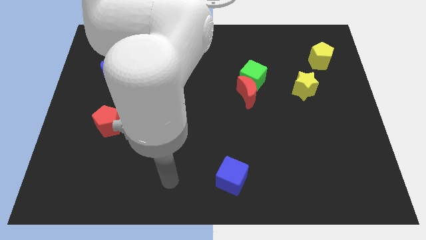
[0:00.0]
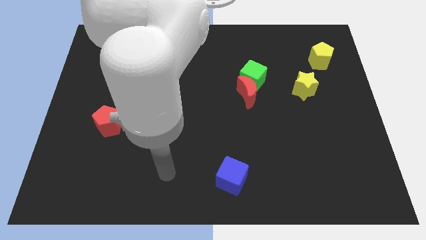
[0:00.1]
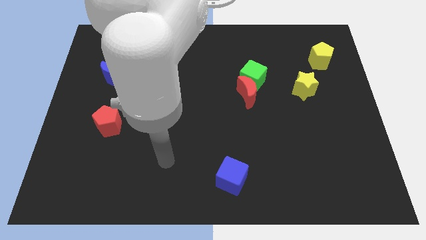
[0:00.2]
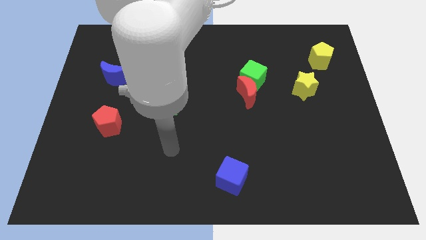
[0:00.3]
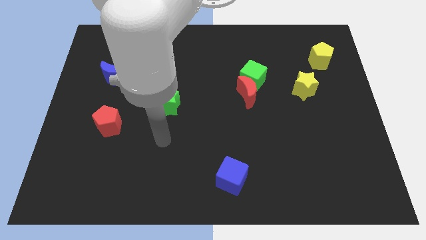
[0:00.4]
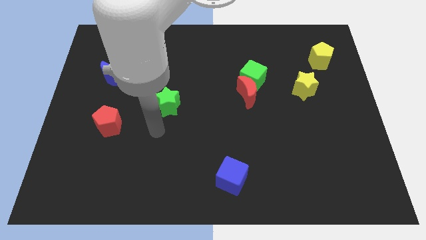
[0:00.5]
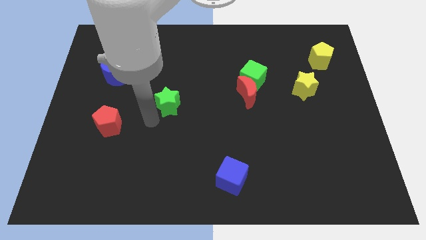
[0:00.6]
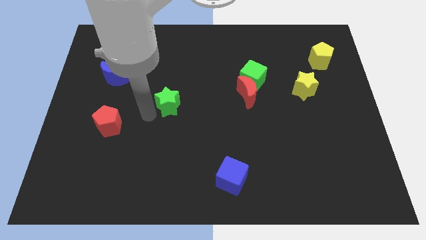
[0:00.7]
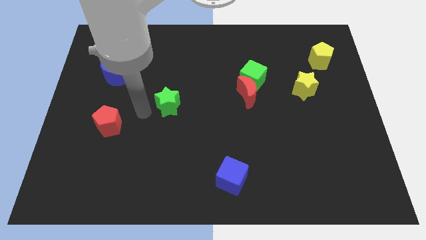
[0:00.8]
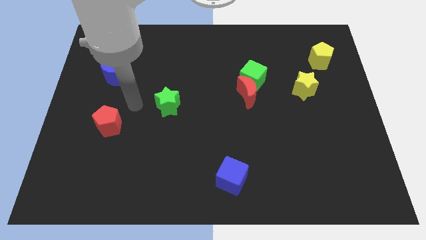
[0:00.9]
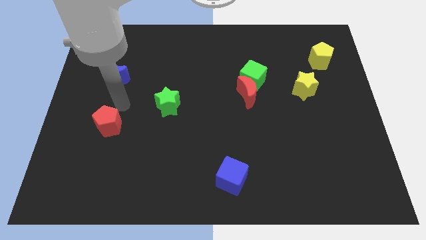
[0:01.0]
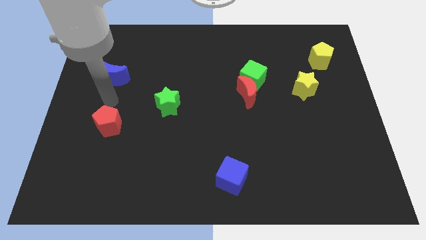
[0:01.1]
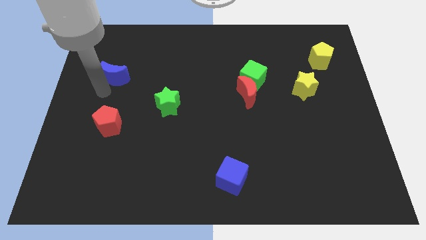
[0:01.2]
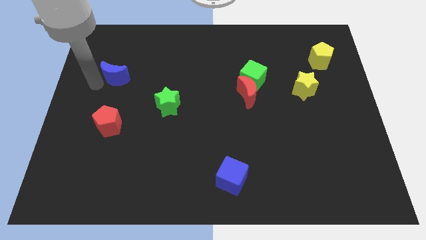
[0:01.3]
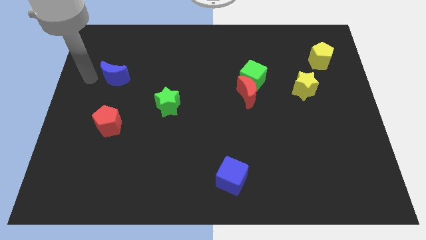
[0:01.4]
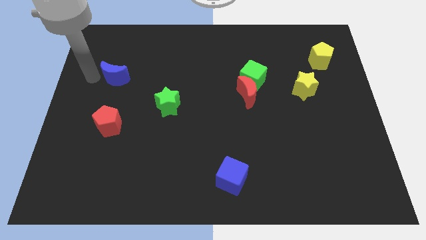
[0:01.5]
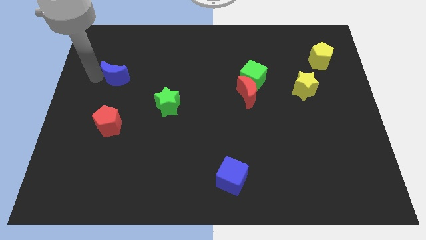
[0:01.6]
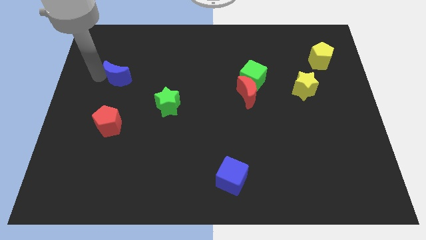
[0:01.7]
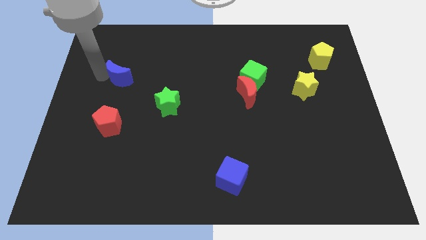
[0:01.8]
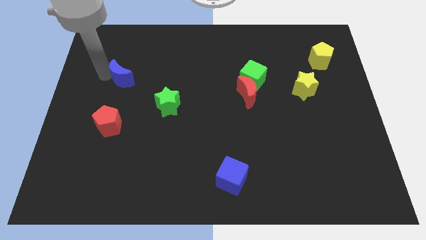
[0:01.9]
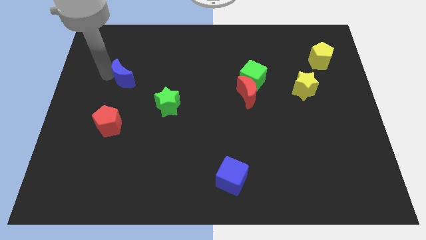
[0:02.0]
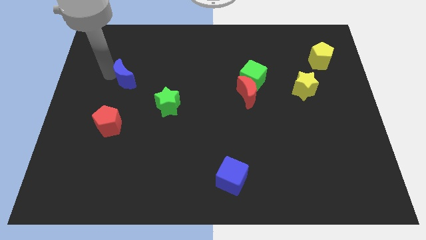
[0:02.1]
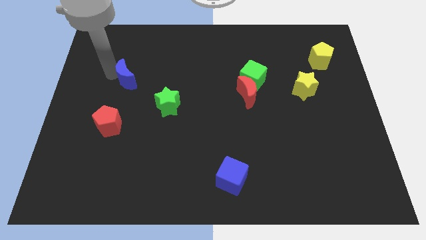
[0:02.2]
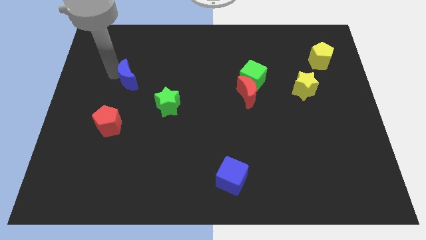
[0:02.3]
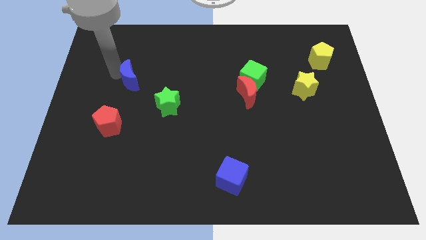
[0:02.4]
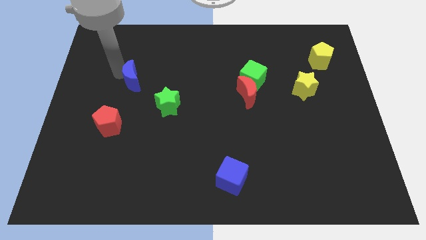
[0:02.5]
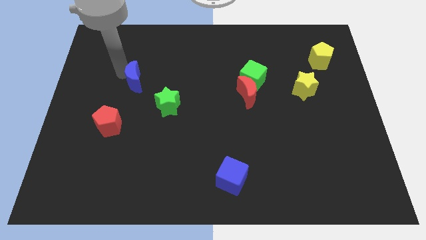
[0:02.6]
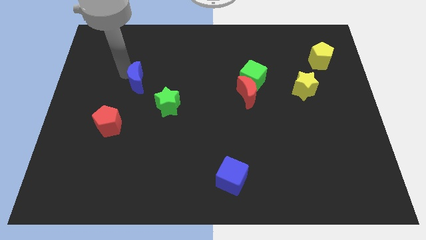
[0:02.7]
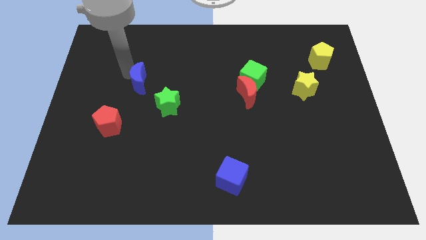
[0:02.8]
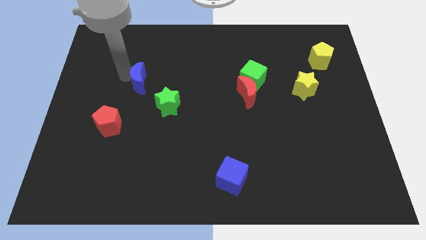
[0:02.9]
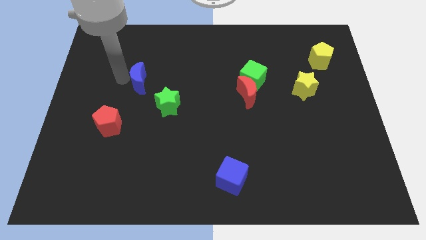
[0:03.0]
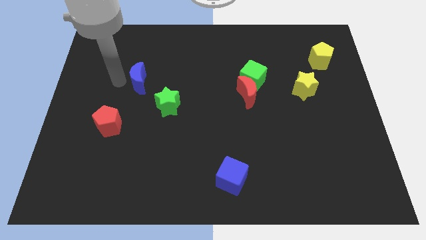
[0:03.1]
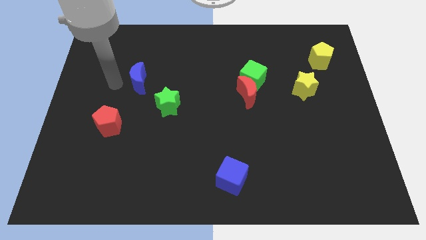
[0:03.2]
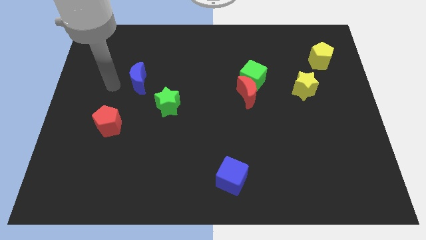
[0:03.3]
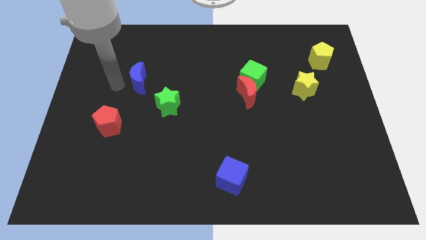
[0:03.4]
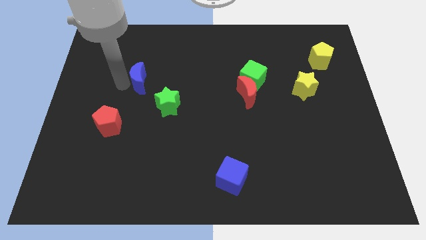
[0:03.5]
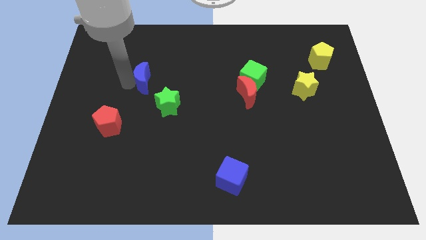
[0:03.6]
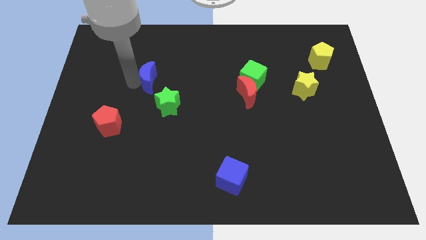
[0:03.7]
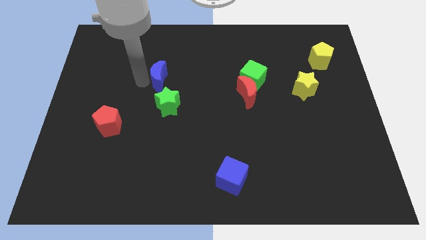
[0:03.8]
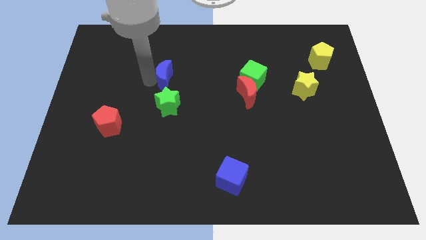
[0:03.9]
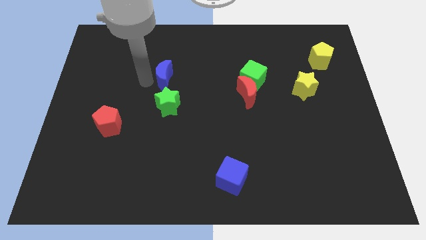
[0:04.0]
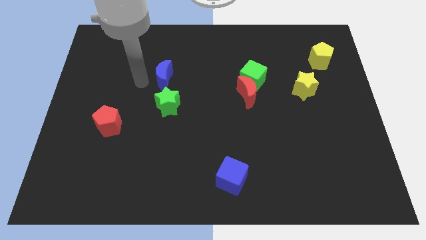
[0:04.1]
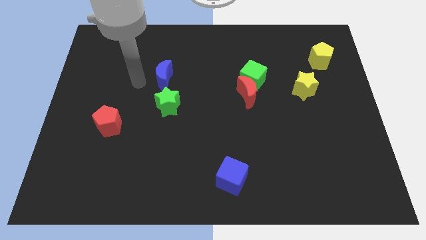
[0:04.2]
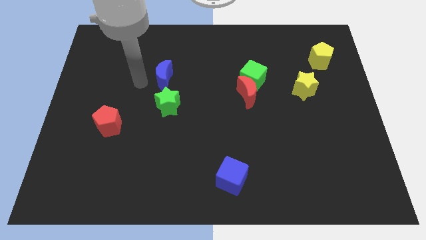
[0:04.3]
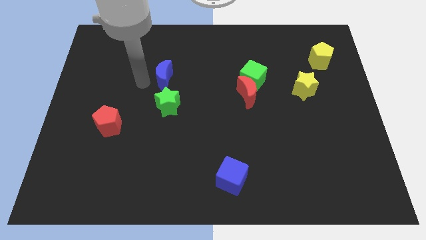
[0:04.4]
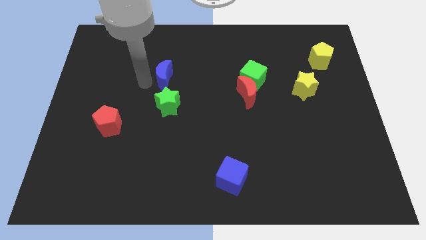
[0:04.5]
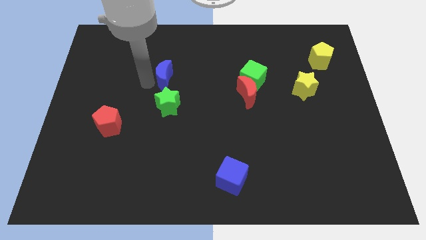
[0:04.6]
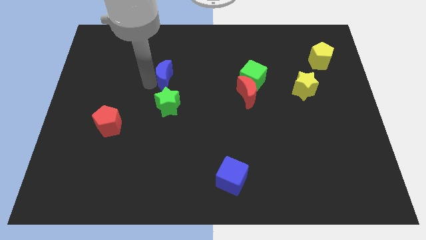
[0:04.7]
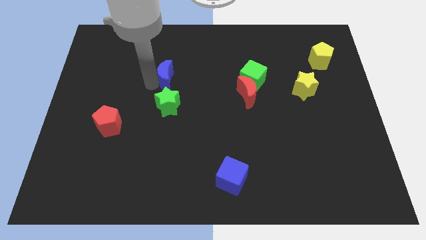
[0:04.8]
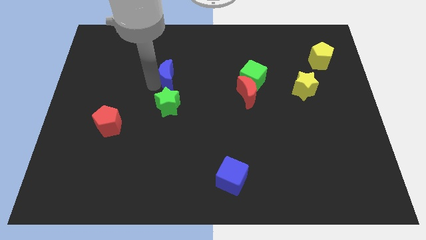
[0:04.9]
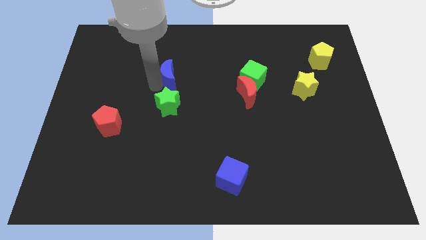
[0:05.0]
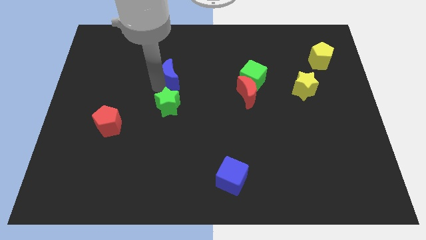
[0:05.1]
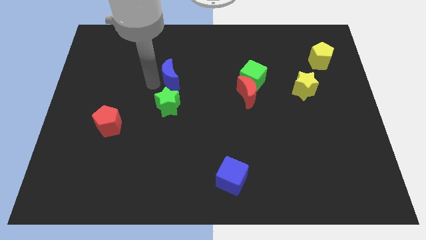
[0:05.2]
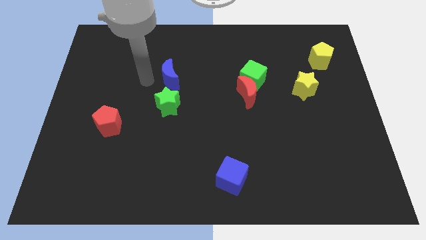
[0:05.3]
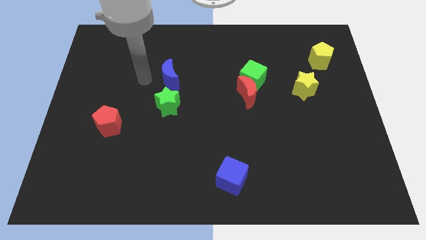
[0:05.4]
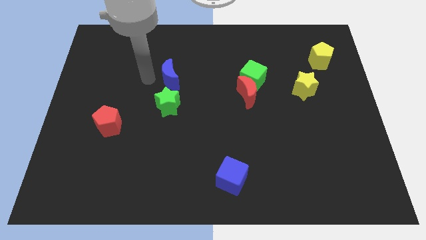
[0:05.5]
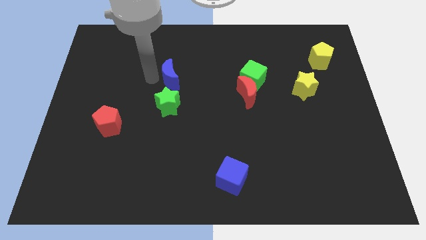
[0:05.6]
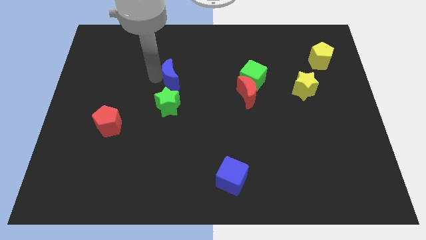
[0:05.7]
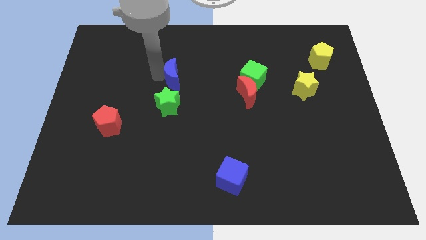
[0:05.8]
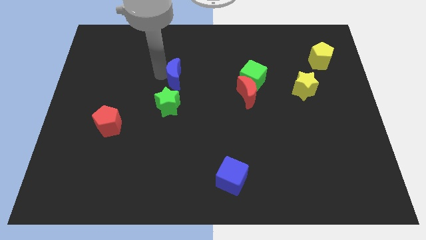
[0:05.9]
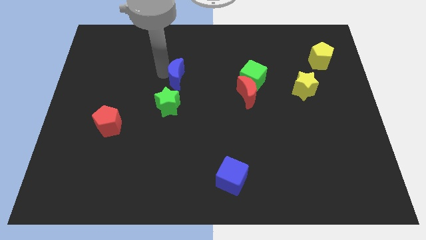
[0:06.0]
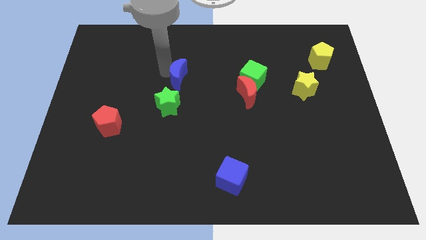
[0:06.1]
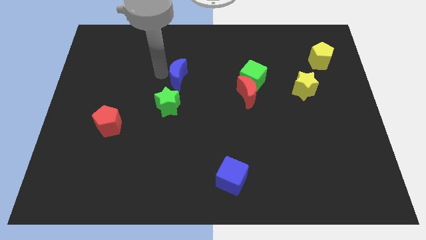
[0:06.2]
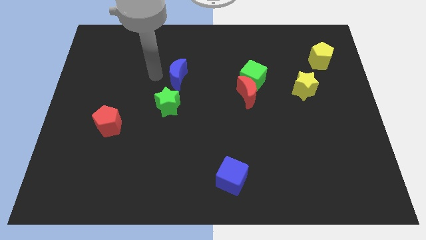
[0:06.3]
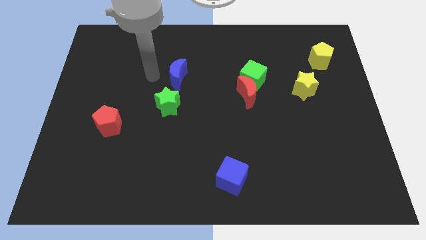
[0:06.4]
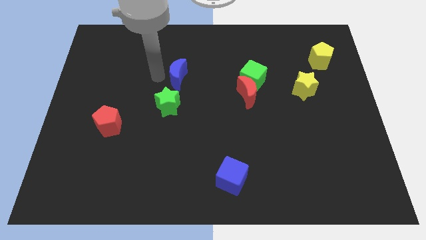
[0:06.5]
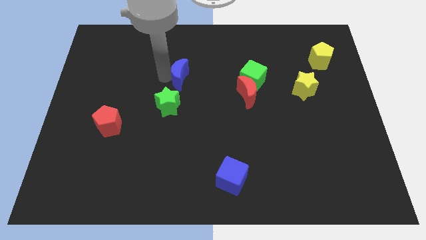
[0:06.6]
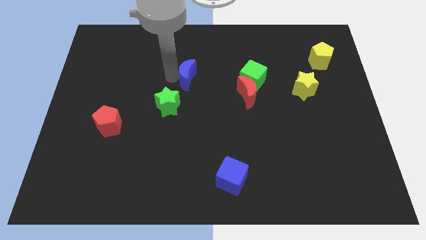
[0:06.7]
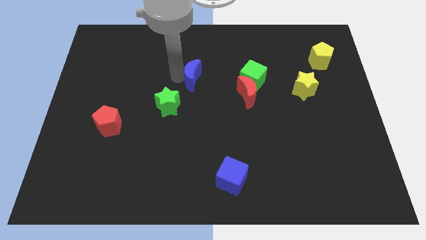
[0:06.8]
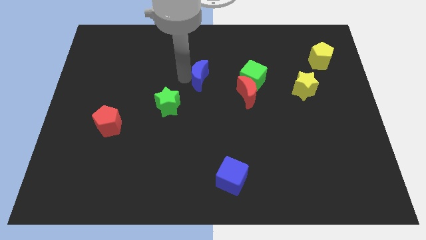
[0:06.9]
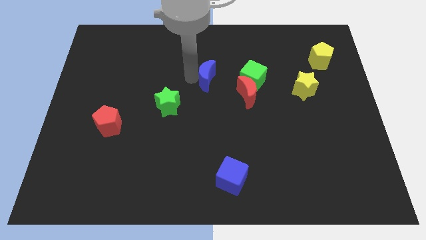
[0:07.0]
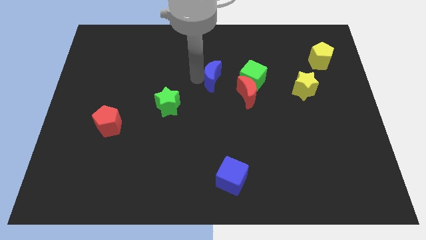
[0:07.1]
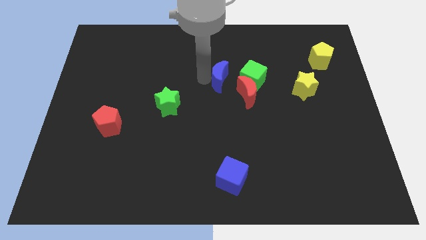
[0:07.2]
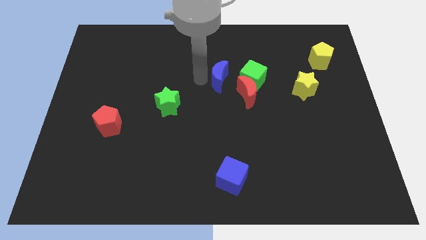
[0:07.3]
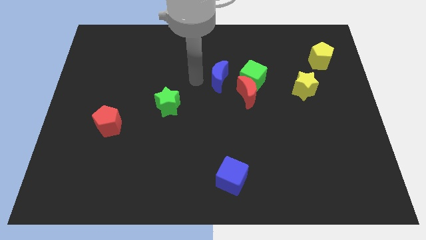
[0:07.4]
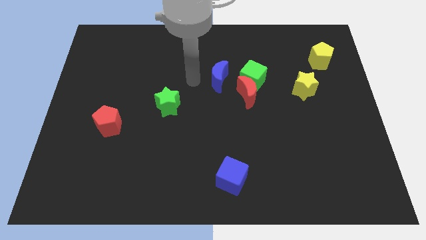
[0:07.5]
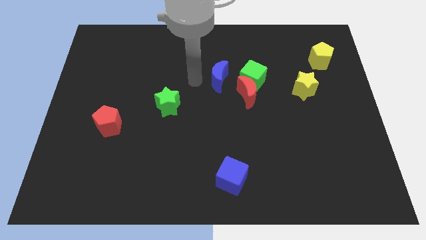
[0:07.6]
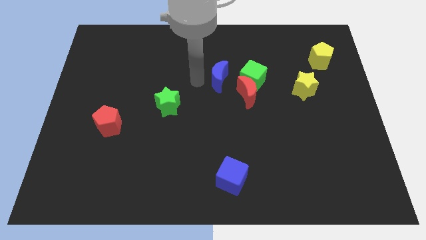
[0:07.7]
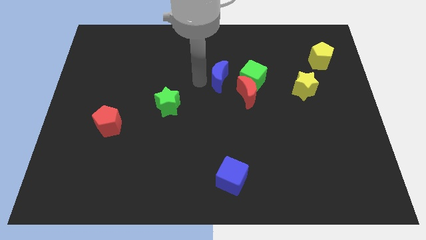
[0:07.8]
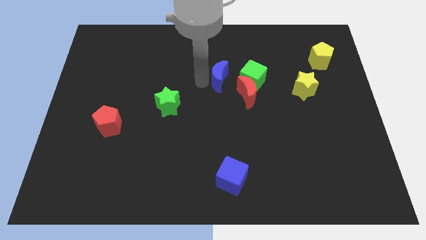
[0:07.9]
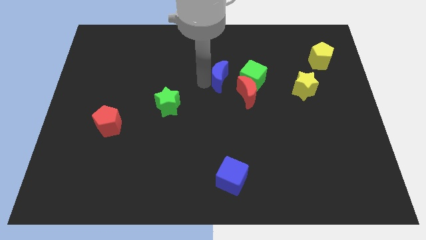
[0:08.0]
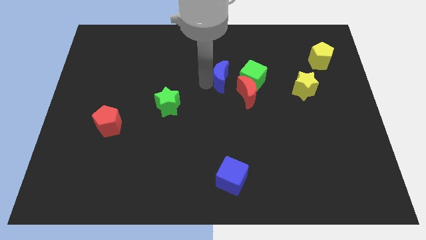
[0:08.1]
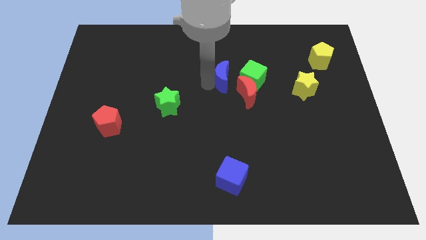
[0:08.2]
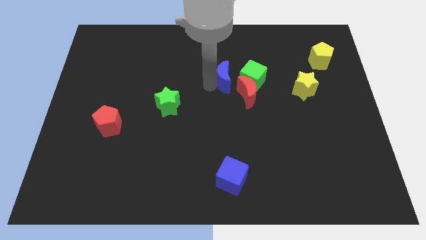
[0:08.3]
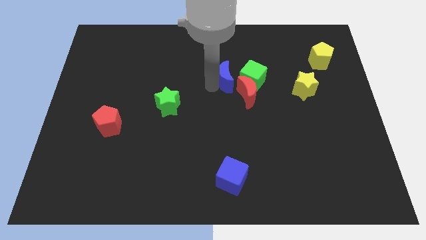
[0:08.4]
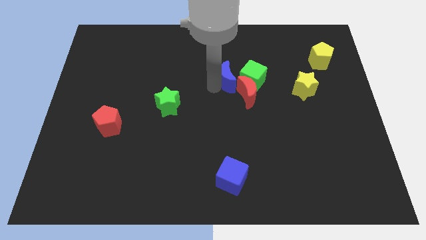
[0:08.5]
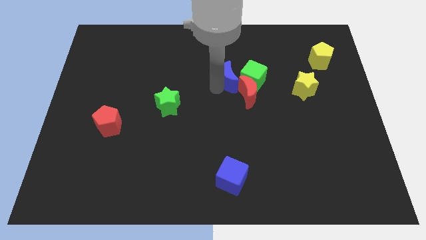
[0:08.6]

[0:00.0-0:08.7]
push the blue moon towards the green cube
